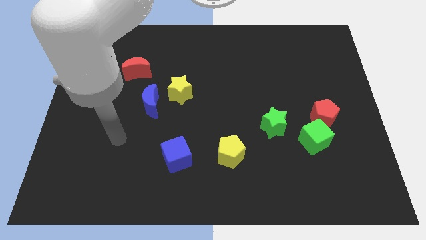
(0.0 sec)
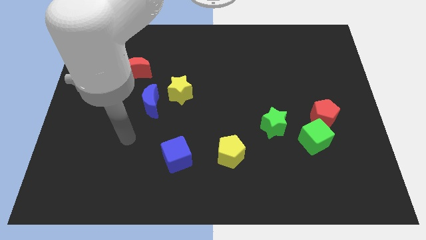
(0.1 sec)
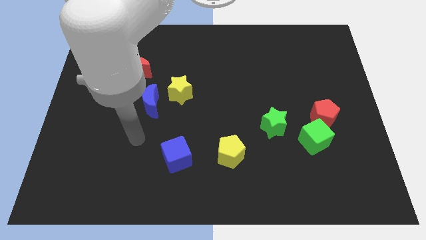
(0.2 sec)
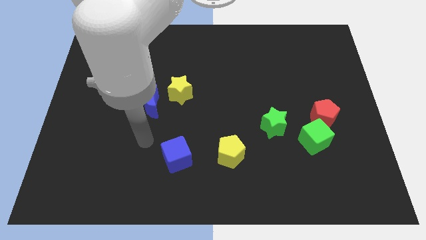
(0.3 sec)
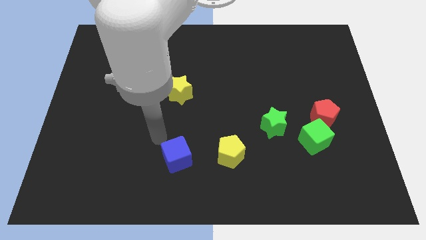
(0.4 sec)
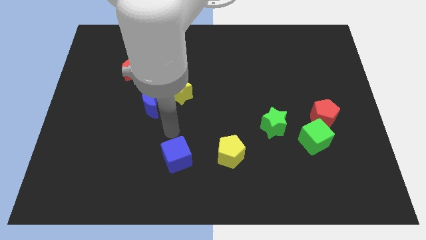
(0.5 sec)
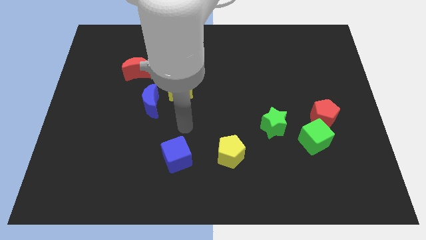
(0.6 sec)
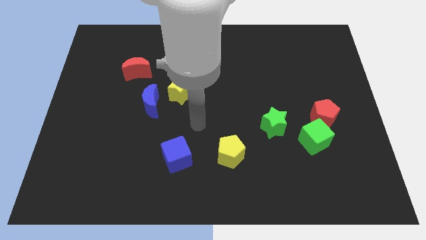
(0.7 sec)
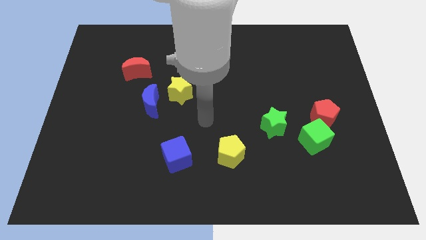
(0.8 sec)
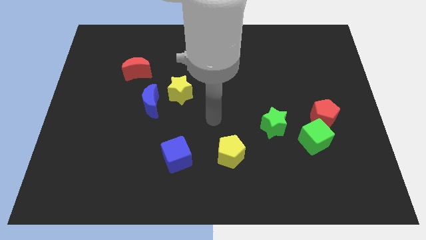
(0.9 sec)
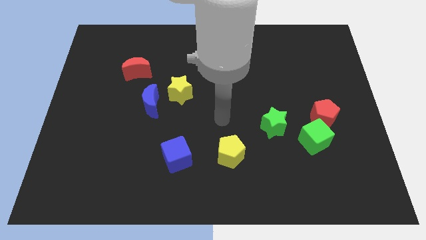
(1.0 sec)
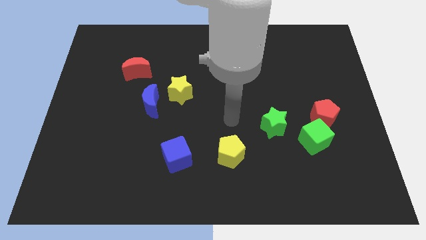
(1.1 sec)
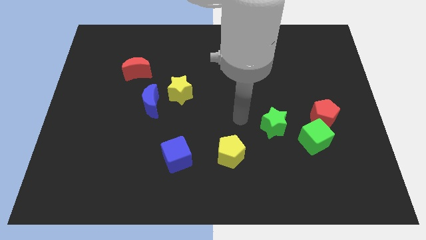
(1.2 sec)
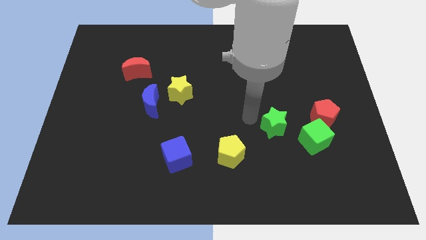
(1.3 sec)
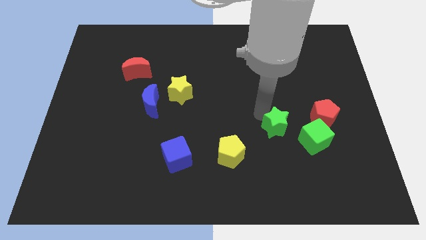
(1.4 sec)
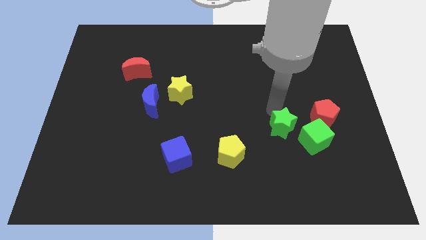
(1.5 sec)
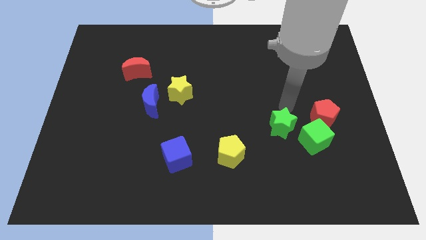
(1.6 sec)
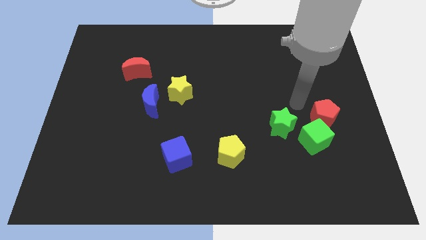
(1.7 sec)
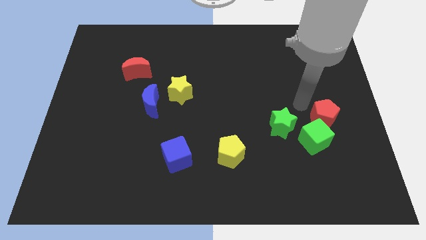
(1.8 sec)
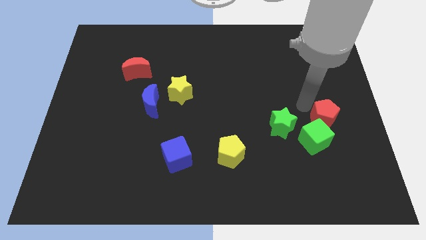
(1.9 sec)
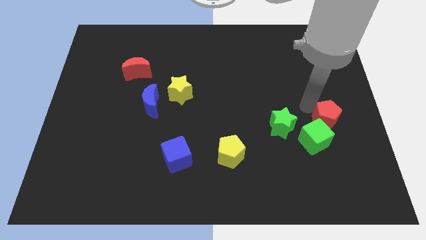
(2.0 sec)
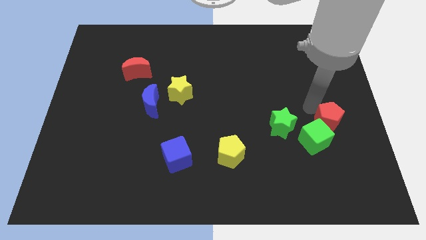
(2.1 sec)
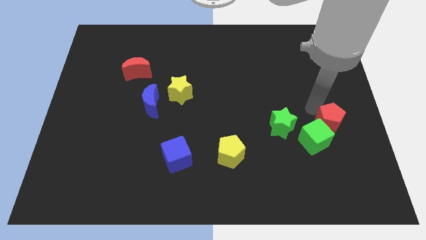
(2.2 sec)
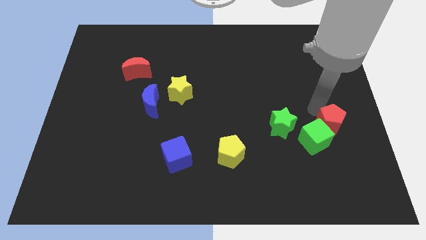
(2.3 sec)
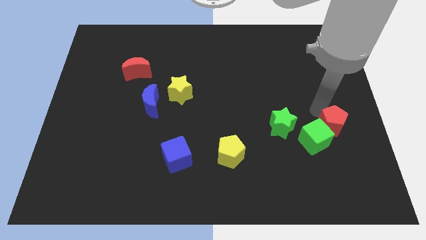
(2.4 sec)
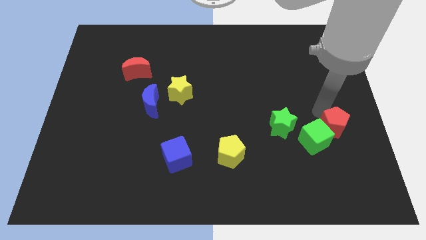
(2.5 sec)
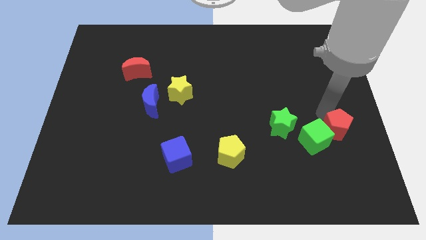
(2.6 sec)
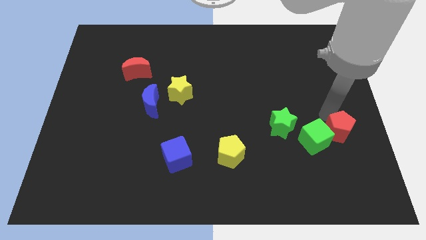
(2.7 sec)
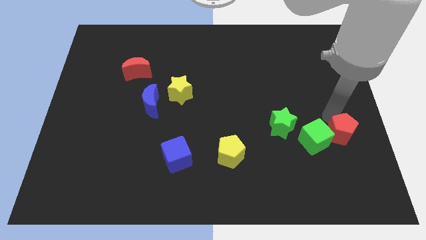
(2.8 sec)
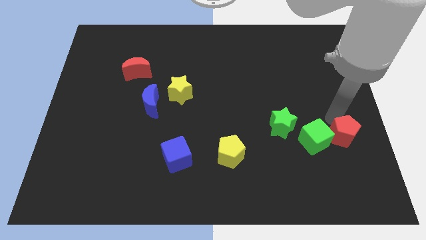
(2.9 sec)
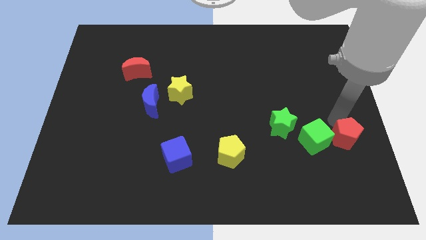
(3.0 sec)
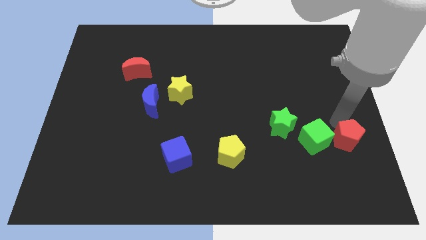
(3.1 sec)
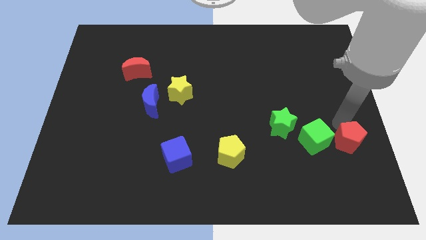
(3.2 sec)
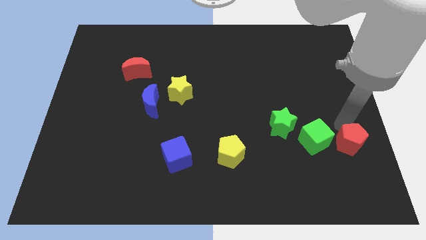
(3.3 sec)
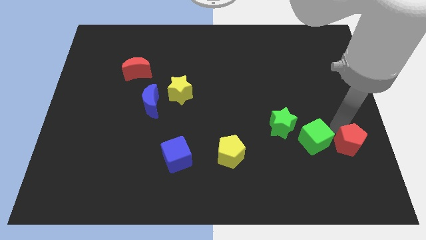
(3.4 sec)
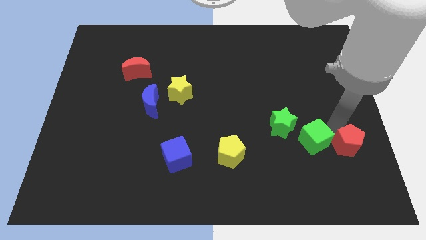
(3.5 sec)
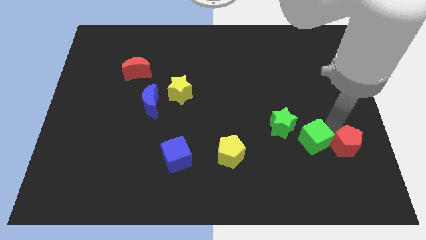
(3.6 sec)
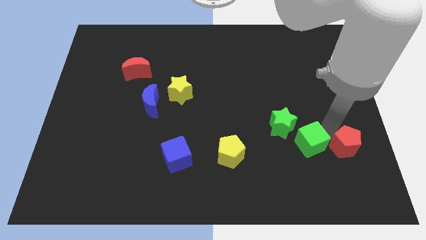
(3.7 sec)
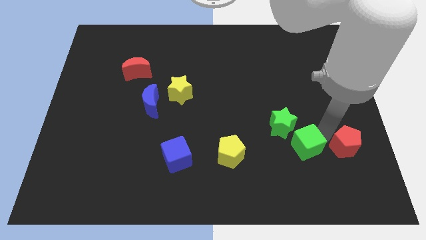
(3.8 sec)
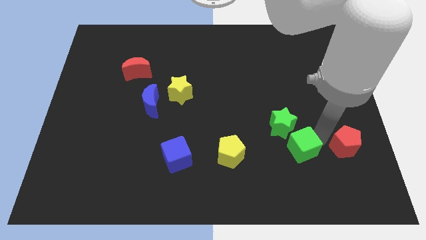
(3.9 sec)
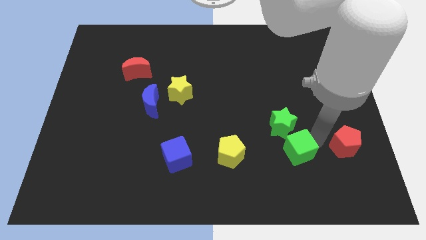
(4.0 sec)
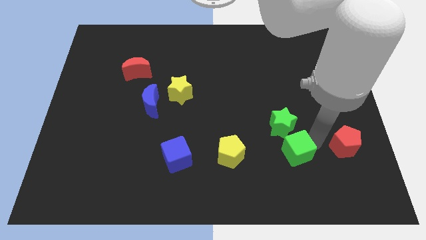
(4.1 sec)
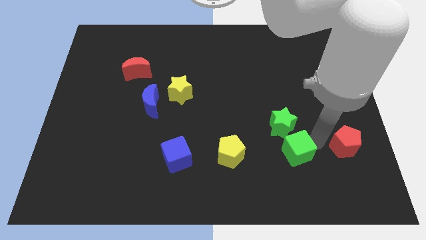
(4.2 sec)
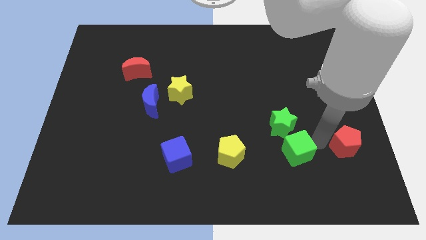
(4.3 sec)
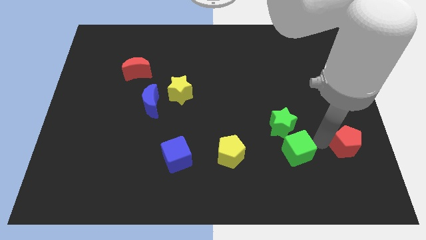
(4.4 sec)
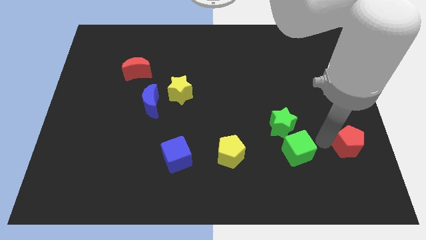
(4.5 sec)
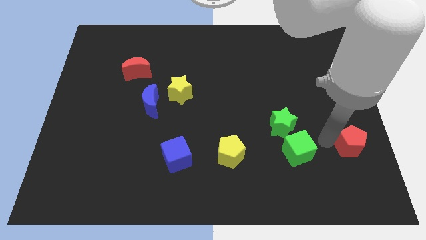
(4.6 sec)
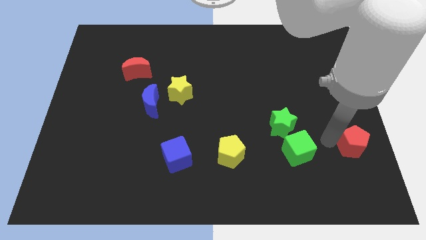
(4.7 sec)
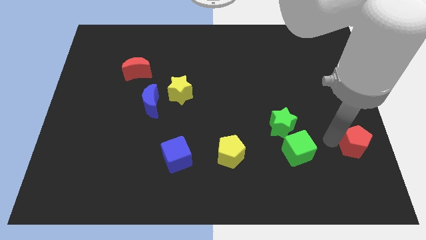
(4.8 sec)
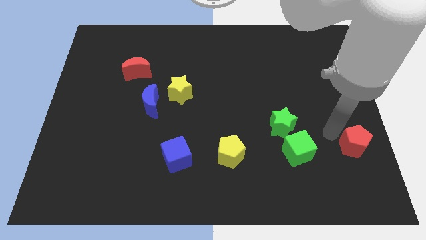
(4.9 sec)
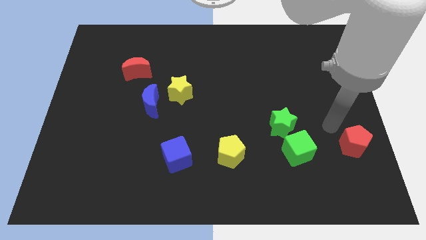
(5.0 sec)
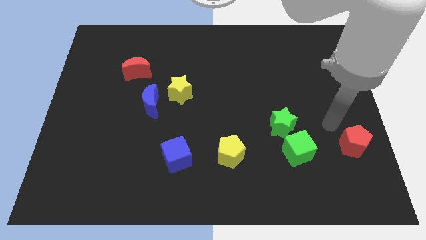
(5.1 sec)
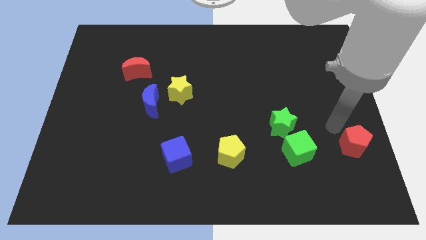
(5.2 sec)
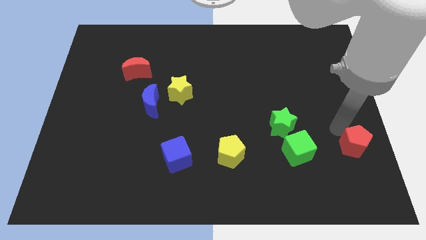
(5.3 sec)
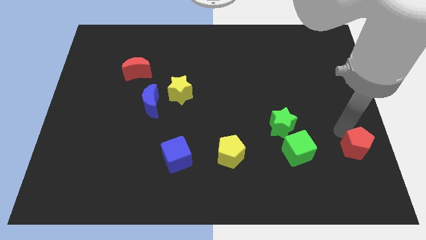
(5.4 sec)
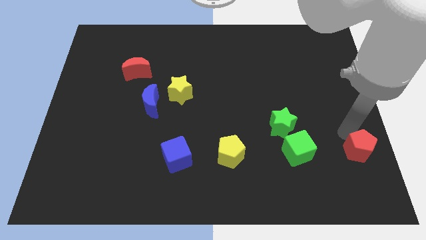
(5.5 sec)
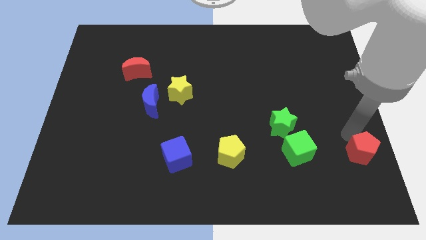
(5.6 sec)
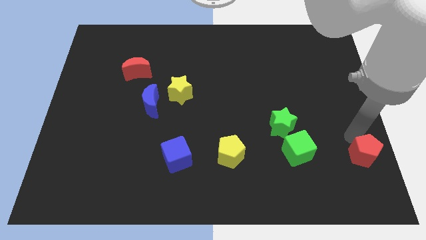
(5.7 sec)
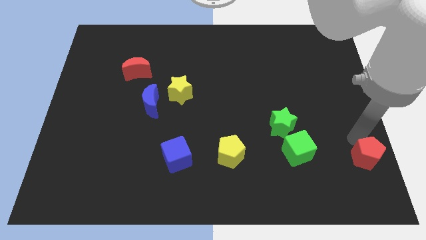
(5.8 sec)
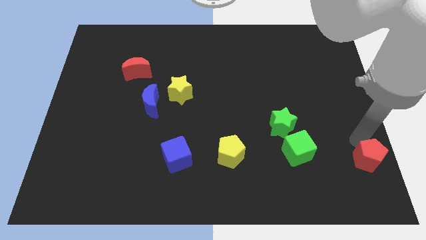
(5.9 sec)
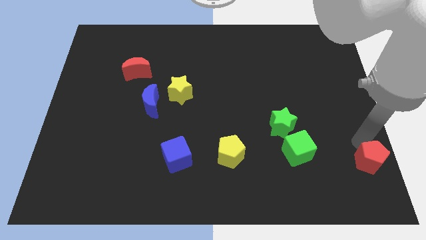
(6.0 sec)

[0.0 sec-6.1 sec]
slide the red pentagon to the bottom right corner
